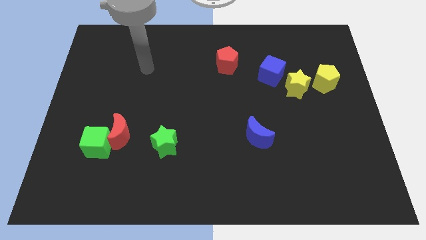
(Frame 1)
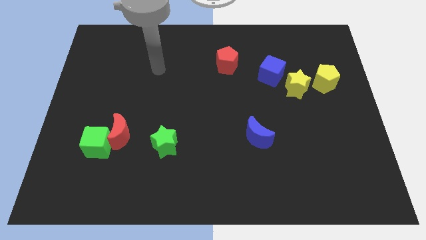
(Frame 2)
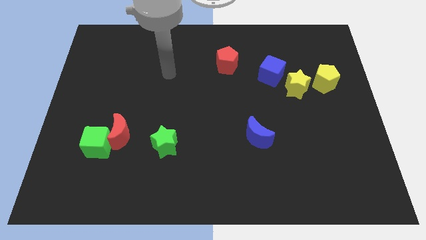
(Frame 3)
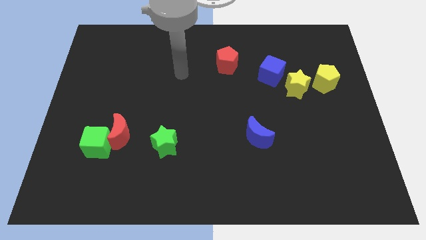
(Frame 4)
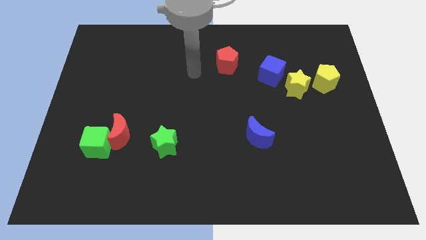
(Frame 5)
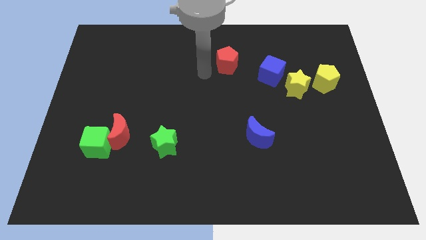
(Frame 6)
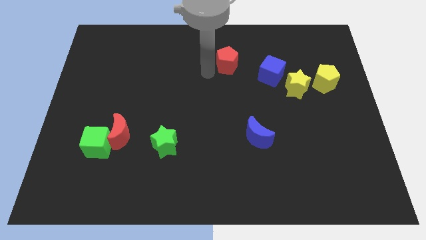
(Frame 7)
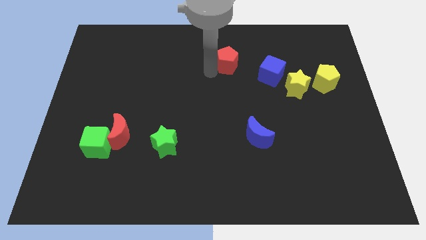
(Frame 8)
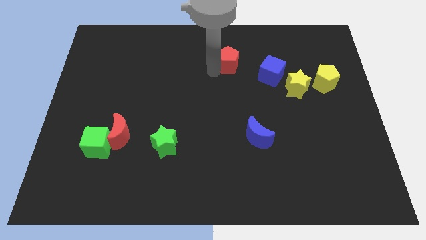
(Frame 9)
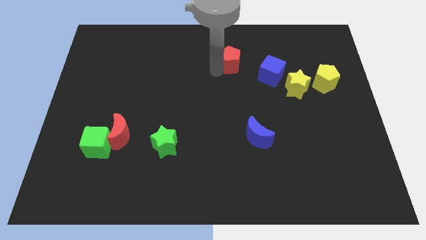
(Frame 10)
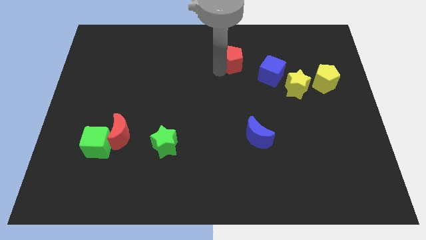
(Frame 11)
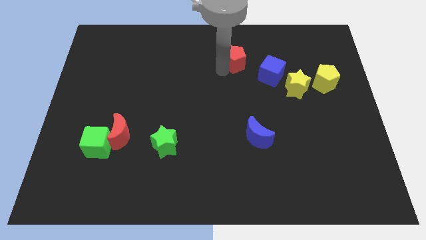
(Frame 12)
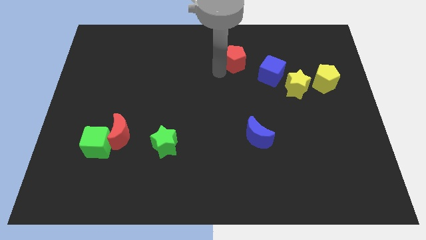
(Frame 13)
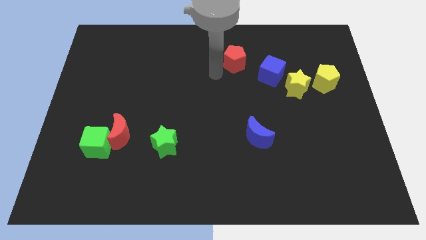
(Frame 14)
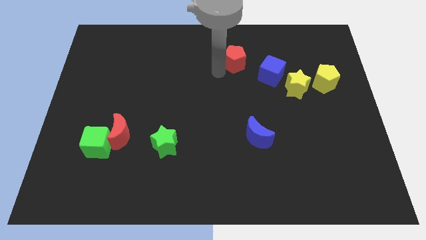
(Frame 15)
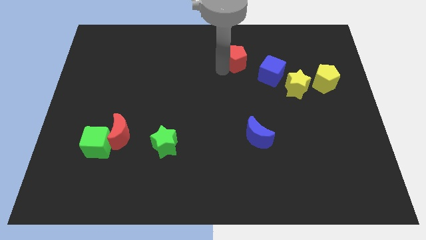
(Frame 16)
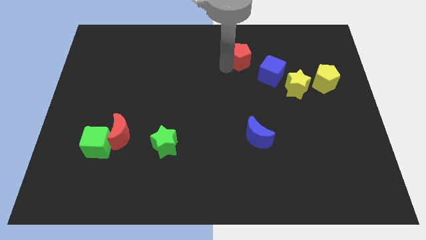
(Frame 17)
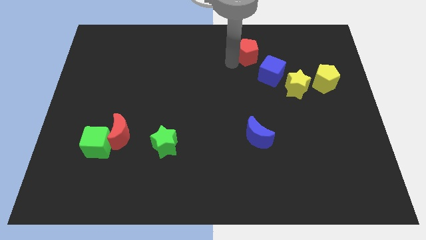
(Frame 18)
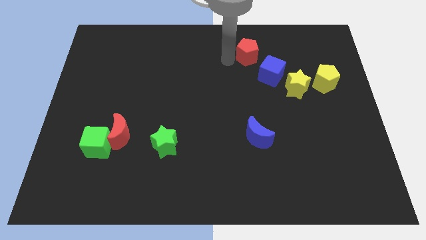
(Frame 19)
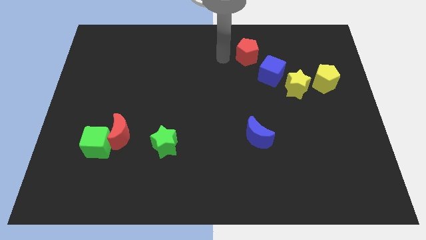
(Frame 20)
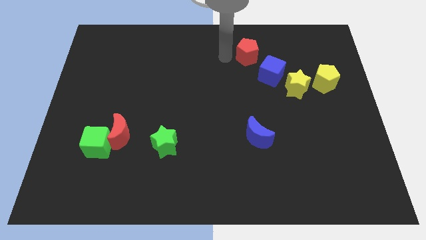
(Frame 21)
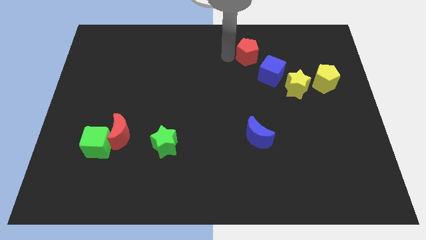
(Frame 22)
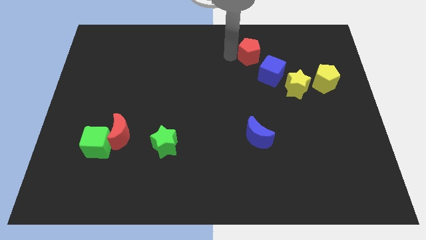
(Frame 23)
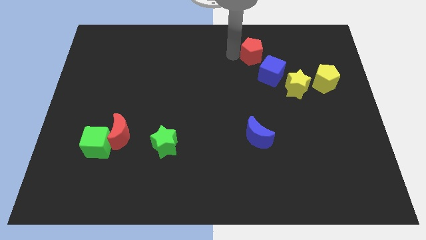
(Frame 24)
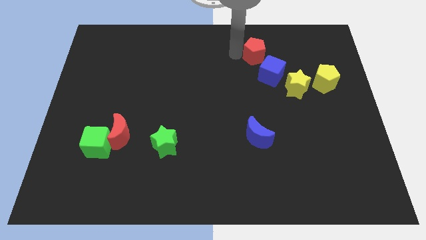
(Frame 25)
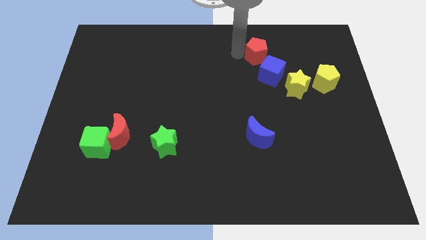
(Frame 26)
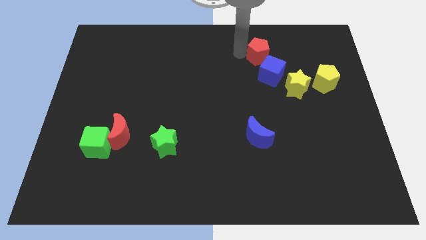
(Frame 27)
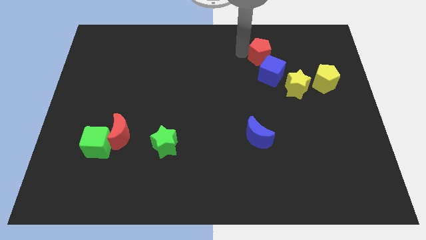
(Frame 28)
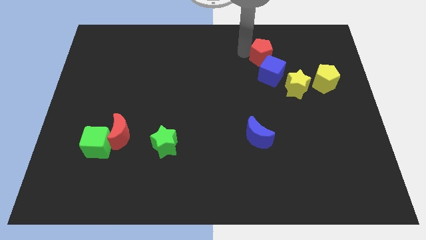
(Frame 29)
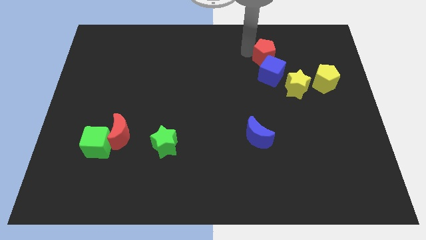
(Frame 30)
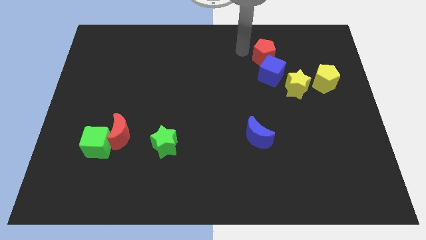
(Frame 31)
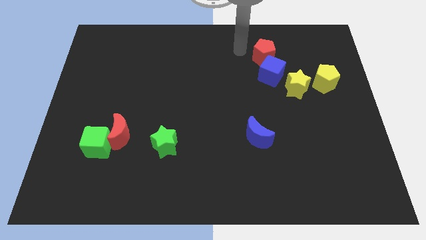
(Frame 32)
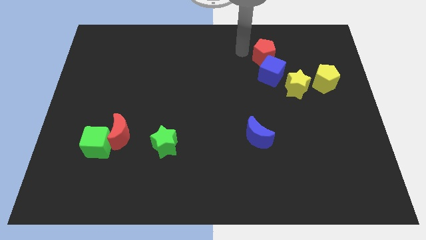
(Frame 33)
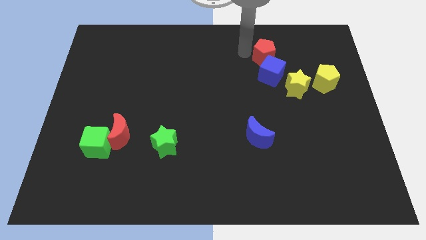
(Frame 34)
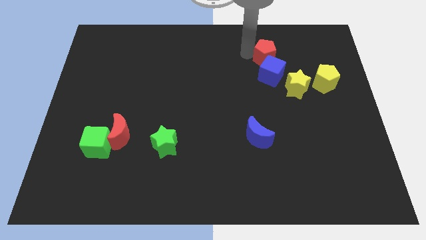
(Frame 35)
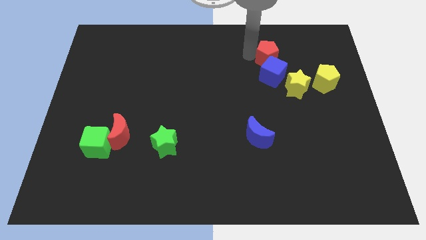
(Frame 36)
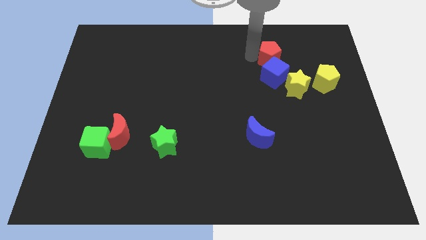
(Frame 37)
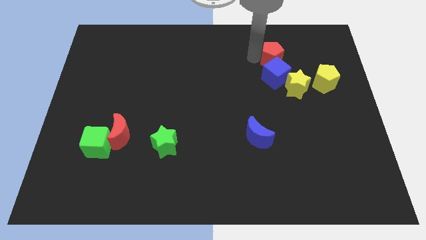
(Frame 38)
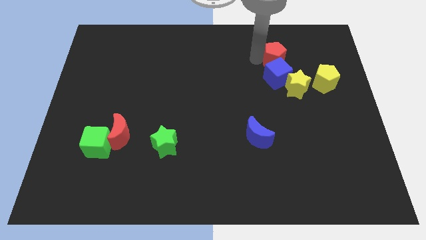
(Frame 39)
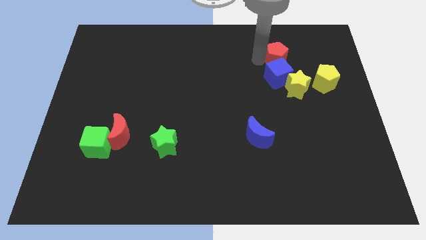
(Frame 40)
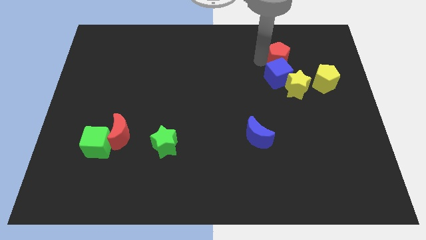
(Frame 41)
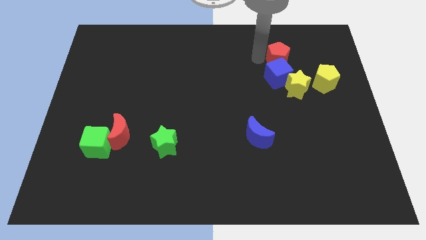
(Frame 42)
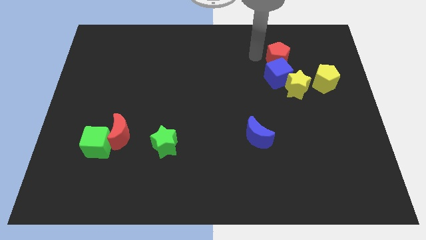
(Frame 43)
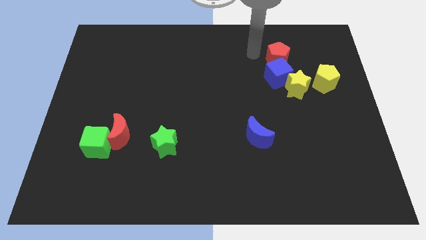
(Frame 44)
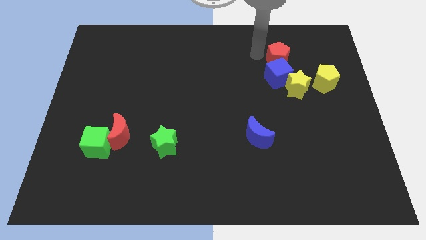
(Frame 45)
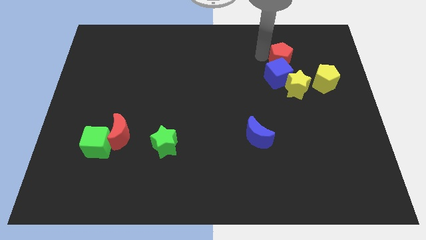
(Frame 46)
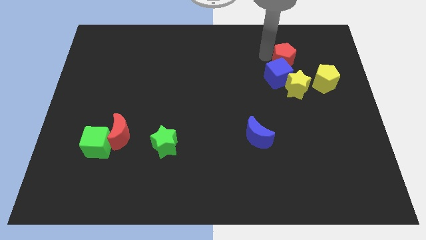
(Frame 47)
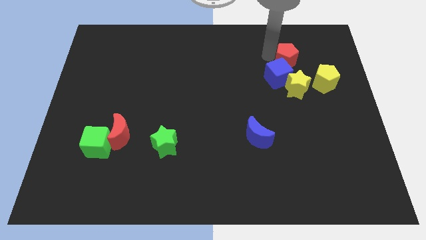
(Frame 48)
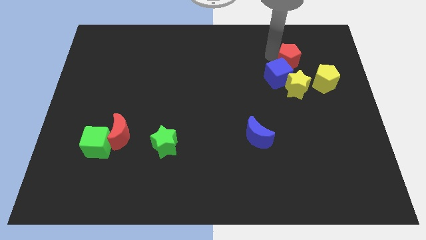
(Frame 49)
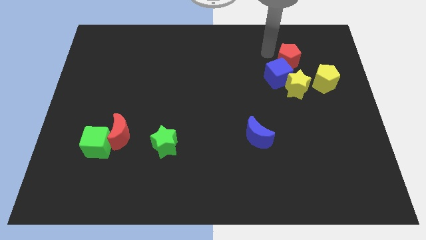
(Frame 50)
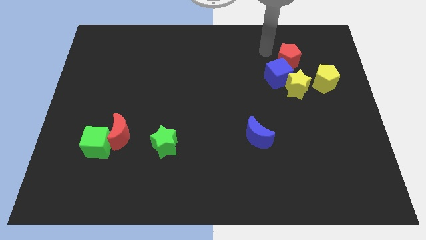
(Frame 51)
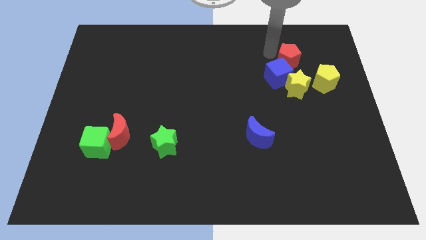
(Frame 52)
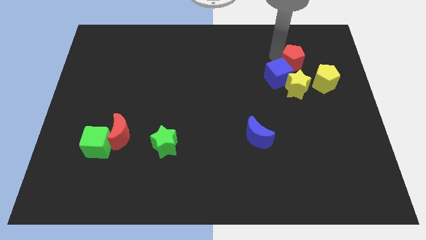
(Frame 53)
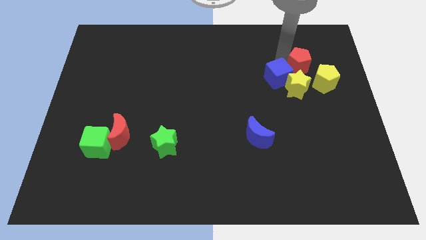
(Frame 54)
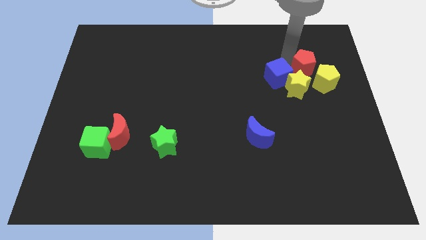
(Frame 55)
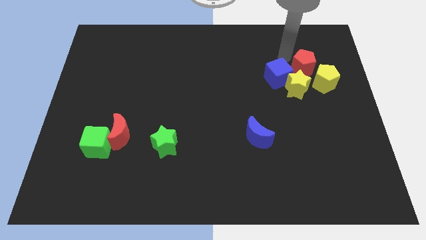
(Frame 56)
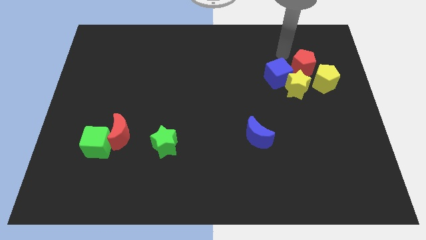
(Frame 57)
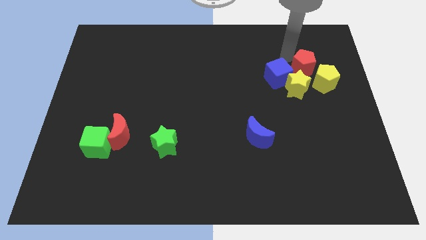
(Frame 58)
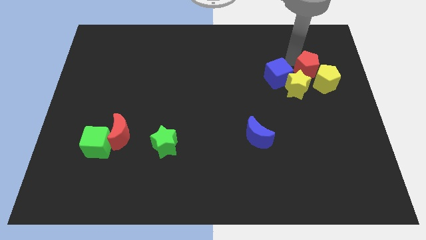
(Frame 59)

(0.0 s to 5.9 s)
put the red pentagon next to the yellow pentagon

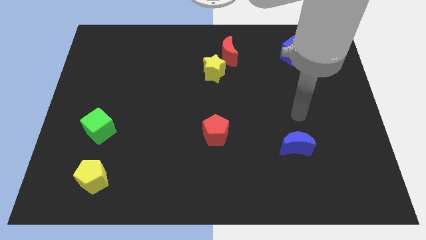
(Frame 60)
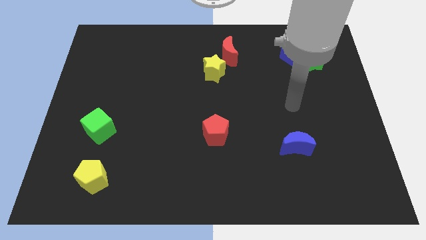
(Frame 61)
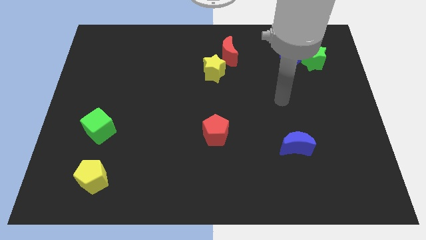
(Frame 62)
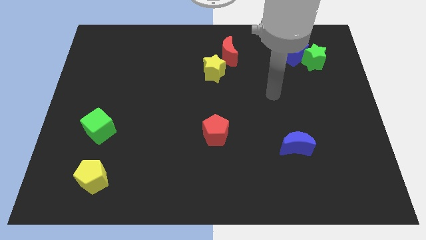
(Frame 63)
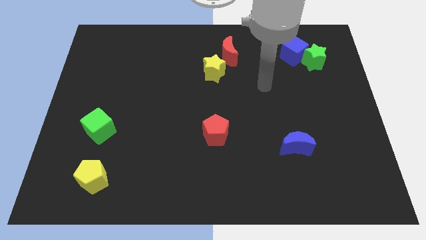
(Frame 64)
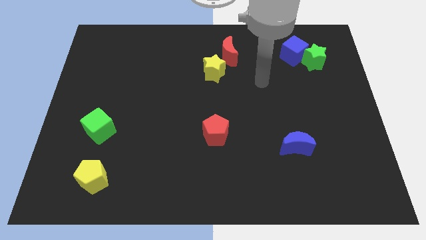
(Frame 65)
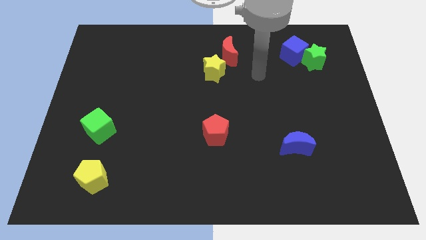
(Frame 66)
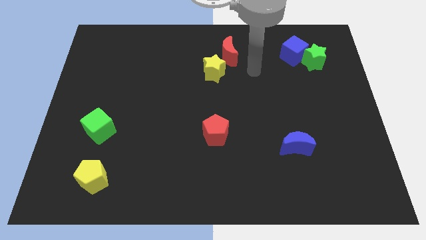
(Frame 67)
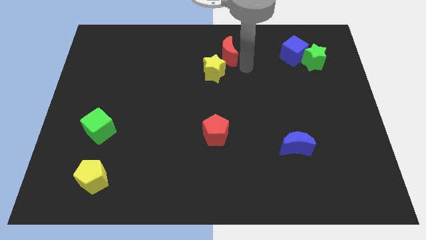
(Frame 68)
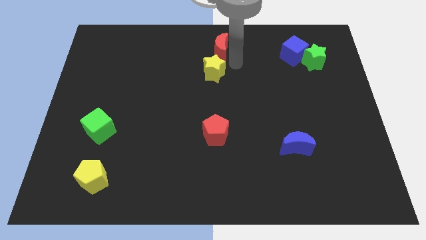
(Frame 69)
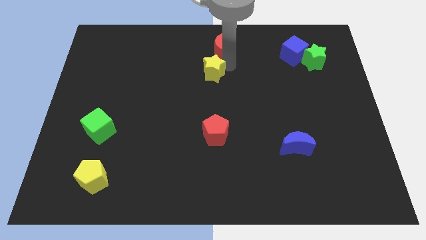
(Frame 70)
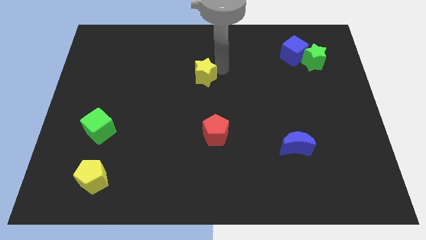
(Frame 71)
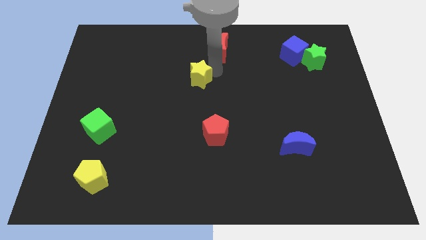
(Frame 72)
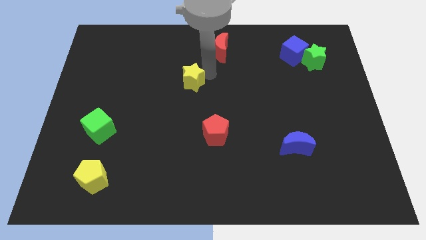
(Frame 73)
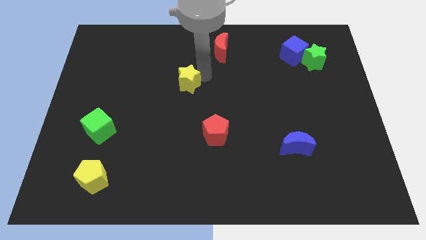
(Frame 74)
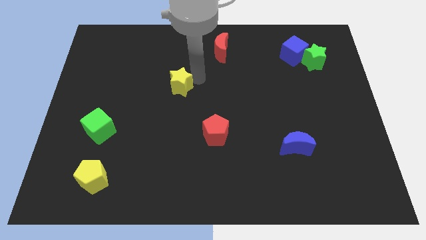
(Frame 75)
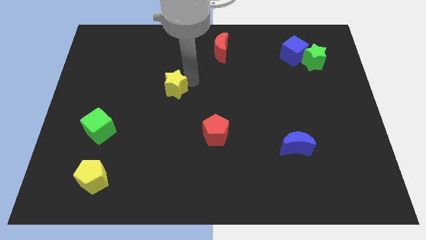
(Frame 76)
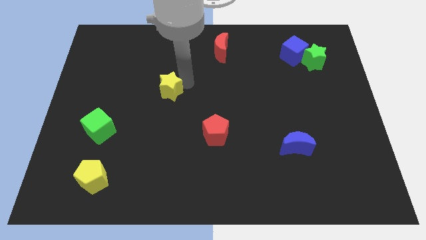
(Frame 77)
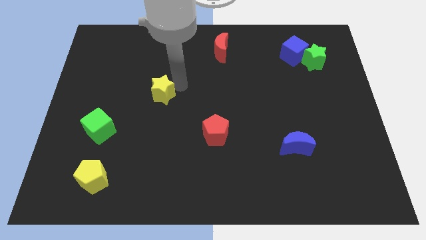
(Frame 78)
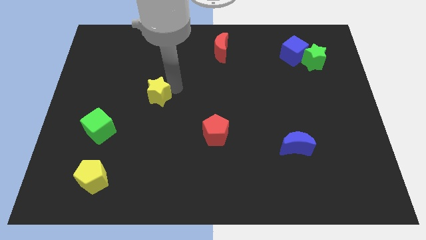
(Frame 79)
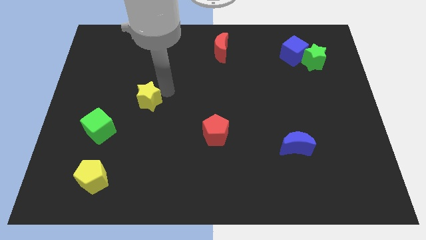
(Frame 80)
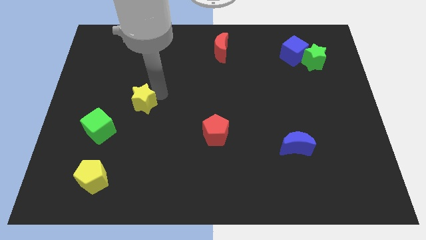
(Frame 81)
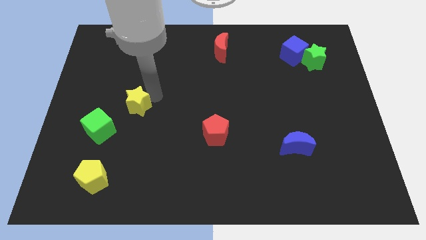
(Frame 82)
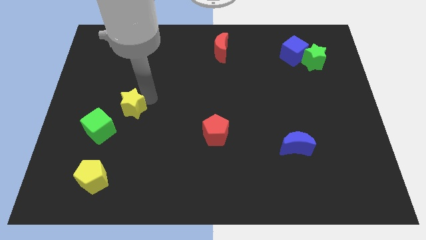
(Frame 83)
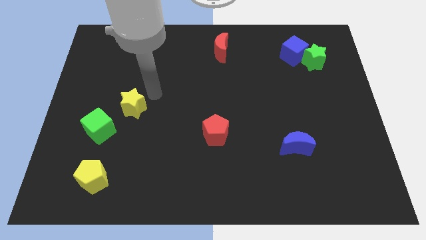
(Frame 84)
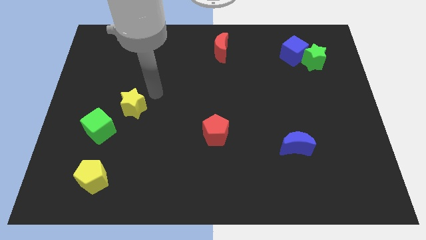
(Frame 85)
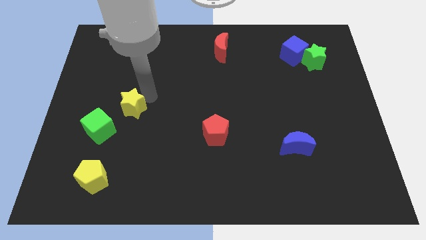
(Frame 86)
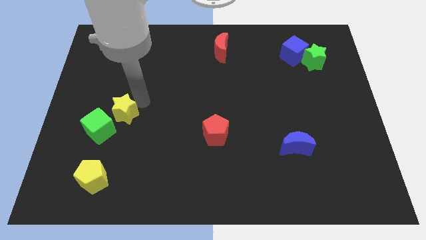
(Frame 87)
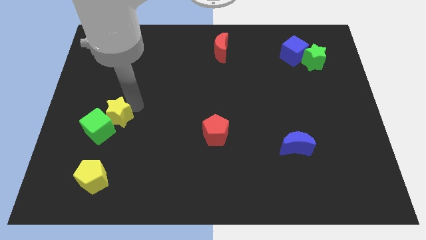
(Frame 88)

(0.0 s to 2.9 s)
push the yellow star to the green cube
